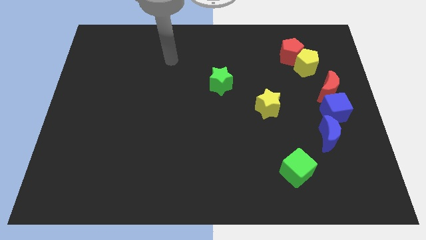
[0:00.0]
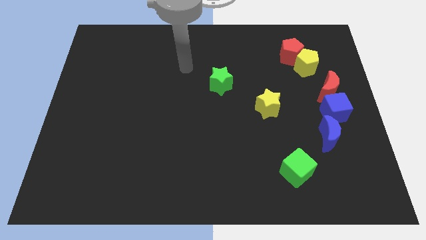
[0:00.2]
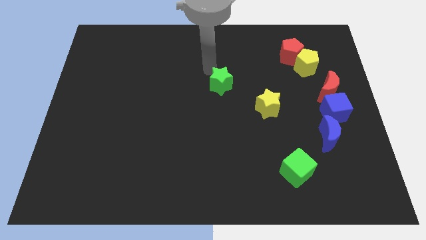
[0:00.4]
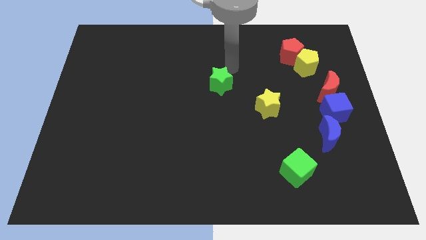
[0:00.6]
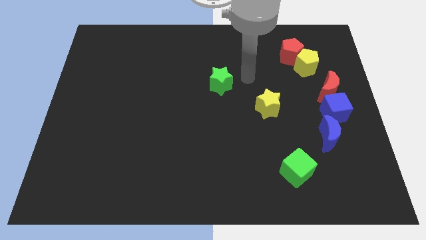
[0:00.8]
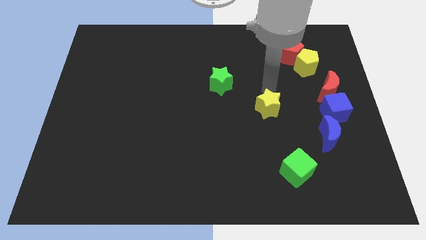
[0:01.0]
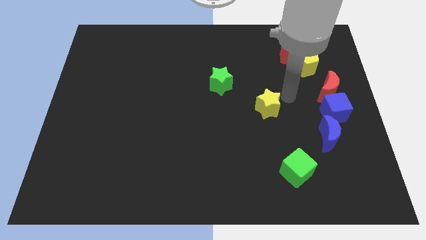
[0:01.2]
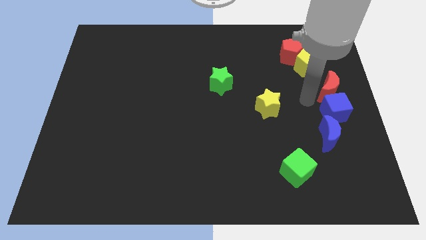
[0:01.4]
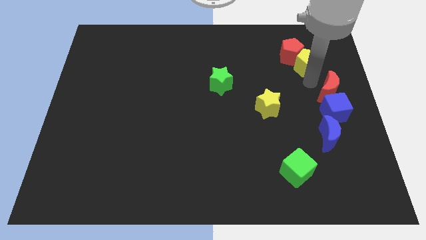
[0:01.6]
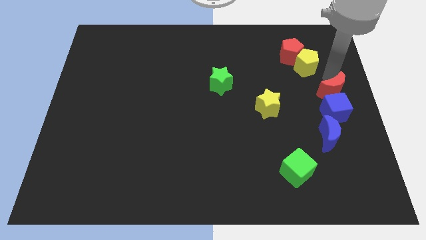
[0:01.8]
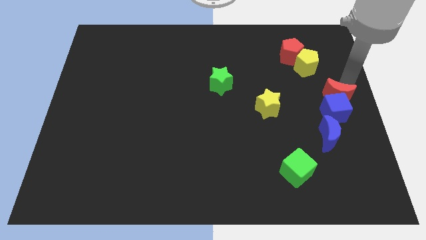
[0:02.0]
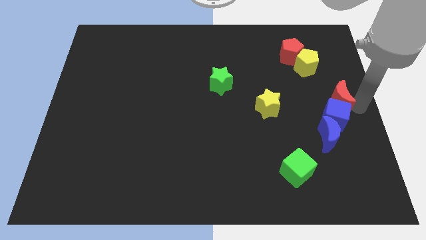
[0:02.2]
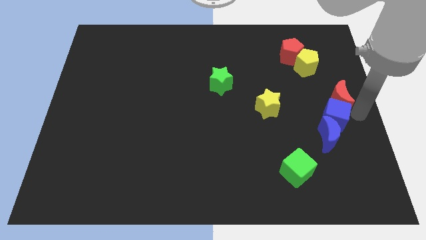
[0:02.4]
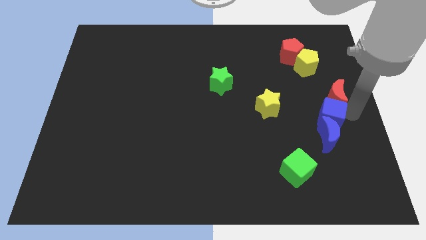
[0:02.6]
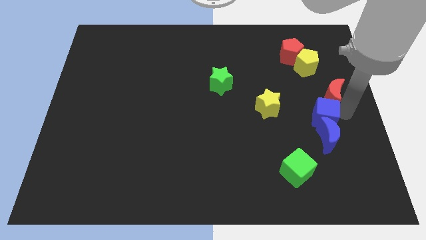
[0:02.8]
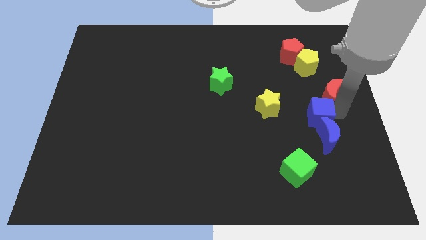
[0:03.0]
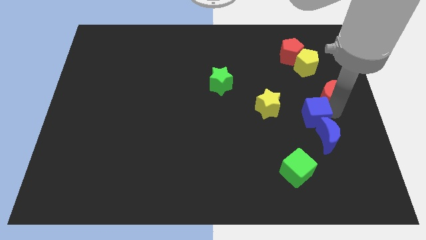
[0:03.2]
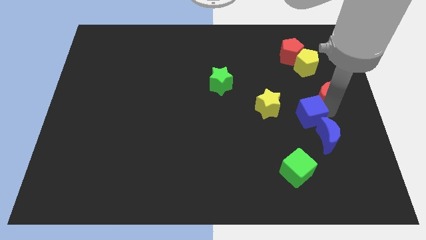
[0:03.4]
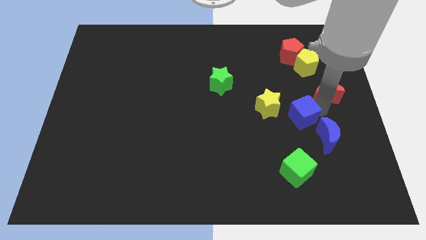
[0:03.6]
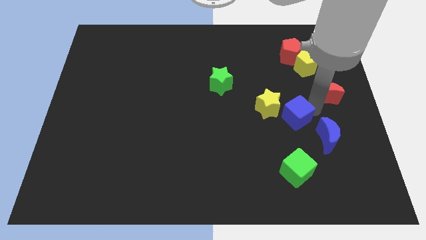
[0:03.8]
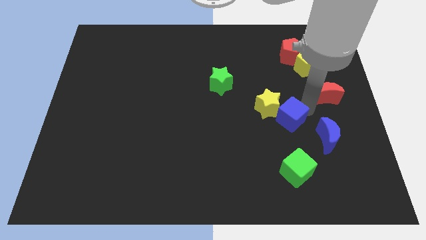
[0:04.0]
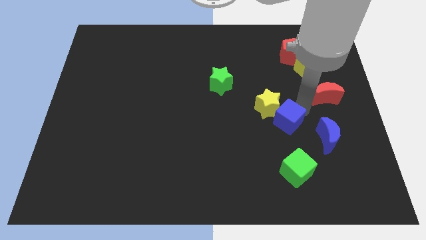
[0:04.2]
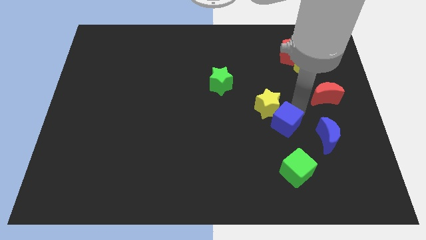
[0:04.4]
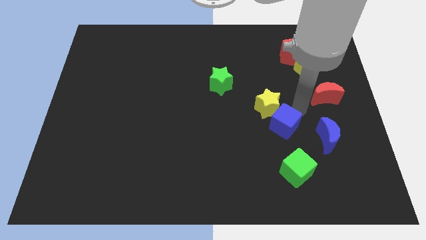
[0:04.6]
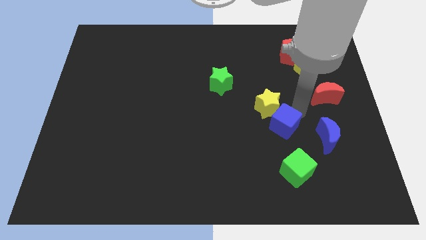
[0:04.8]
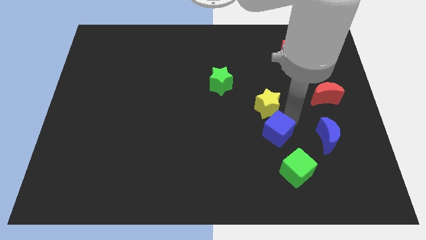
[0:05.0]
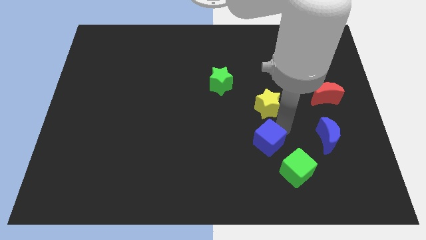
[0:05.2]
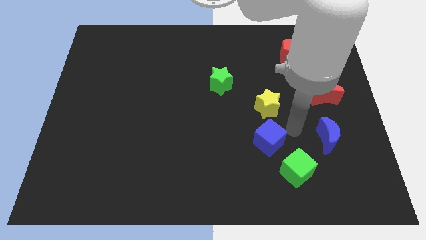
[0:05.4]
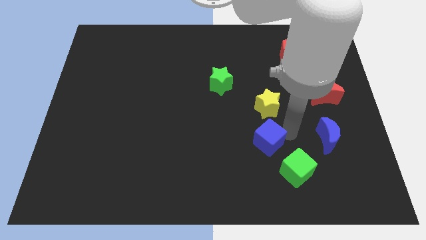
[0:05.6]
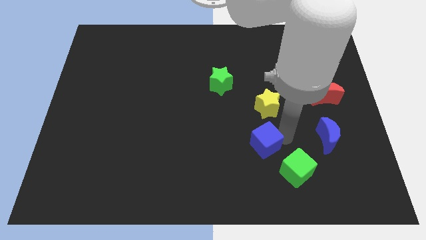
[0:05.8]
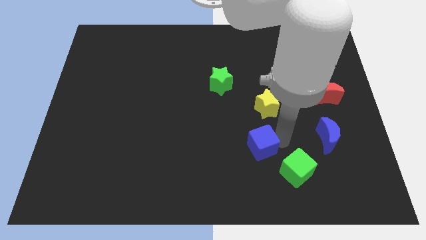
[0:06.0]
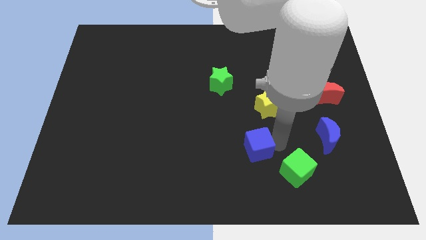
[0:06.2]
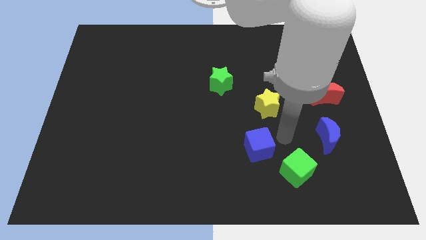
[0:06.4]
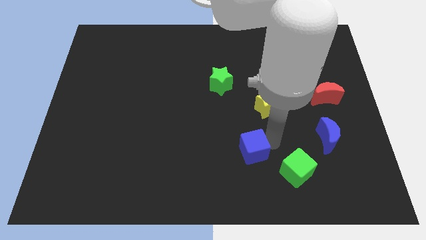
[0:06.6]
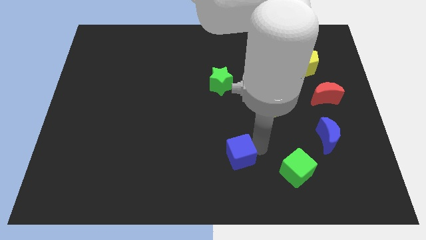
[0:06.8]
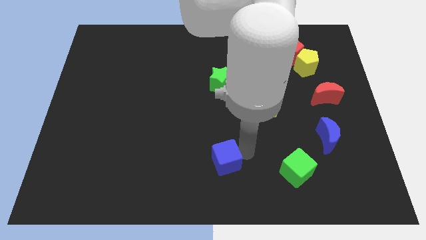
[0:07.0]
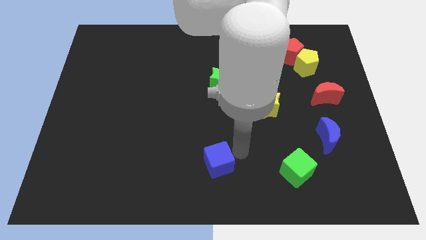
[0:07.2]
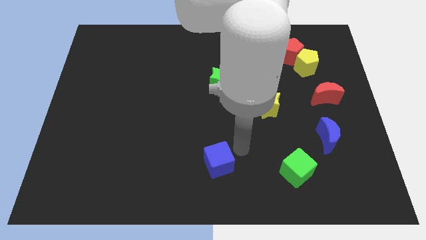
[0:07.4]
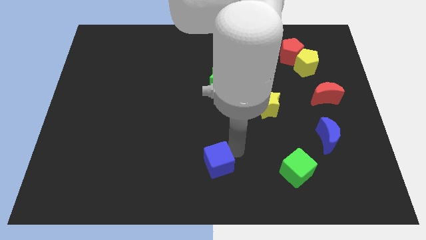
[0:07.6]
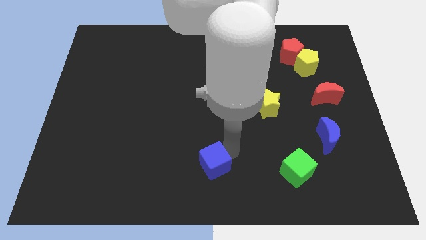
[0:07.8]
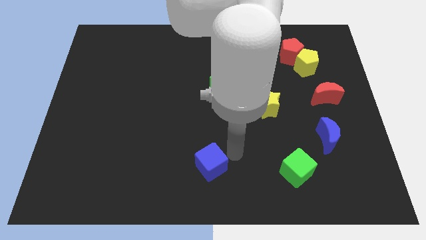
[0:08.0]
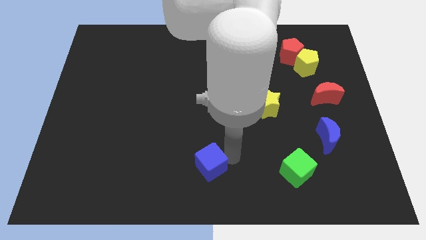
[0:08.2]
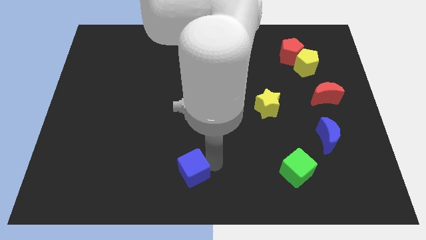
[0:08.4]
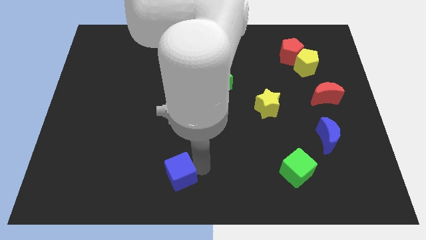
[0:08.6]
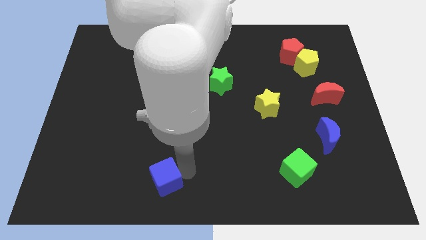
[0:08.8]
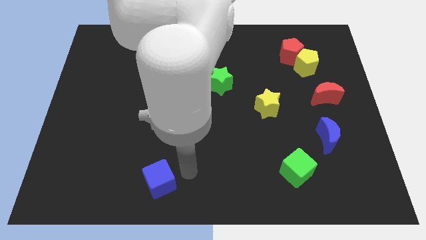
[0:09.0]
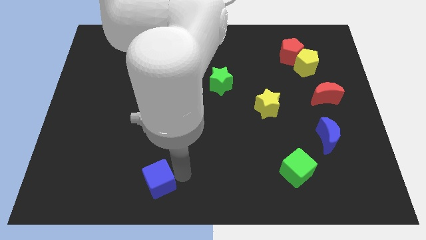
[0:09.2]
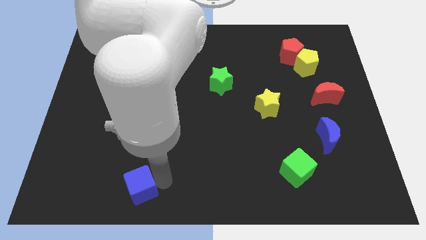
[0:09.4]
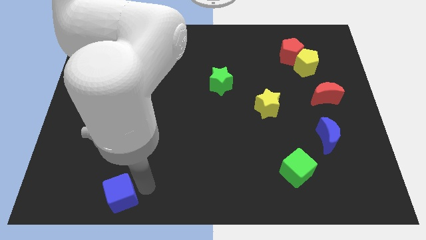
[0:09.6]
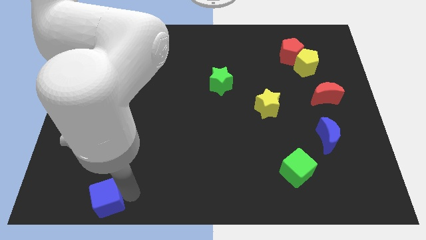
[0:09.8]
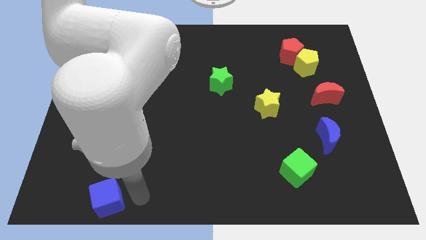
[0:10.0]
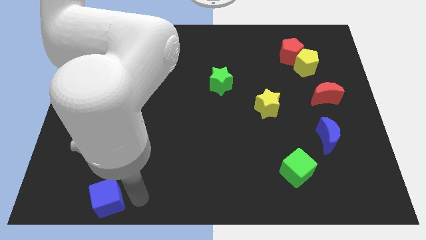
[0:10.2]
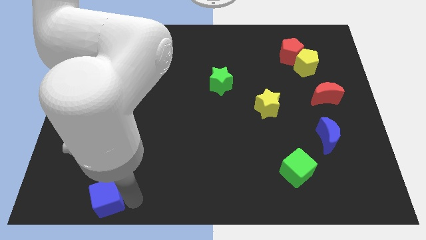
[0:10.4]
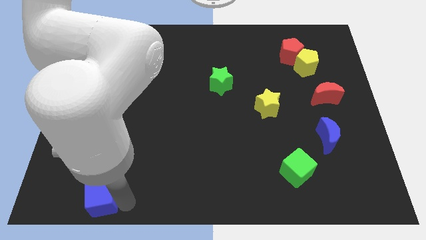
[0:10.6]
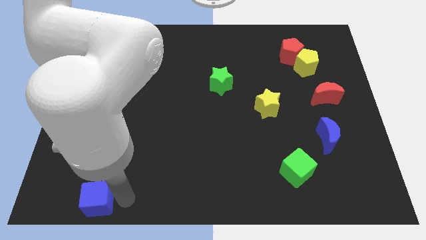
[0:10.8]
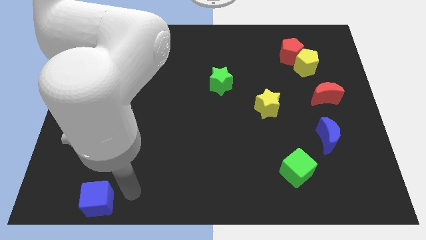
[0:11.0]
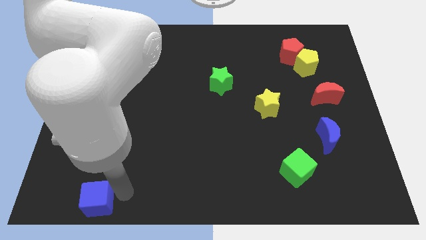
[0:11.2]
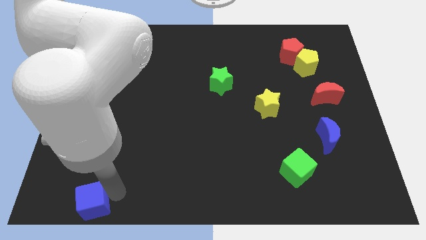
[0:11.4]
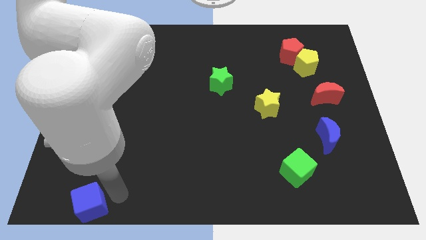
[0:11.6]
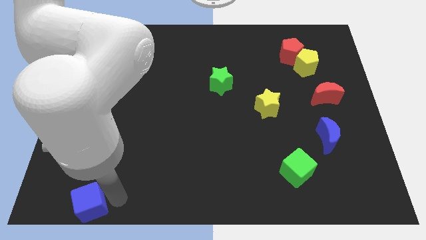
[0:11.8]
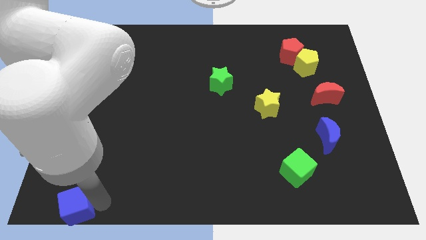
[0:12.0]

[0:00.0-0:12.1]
slide the blue cube to the bottom left
